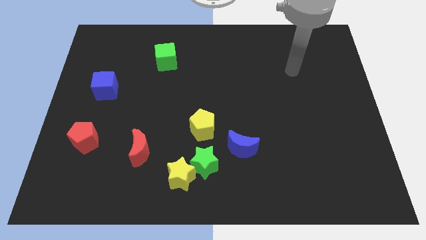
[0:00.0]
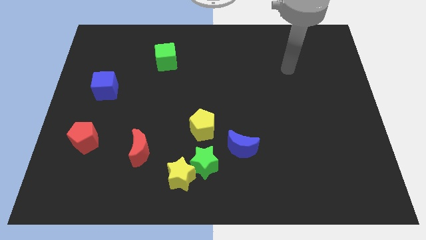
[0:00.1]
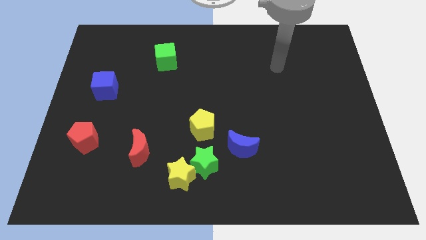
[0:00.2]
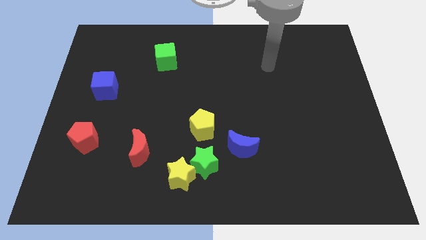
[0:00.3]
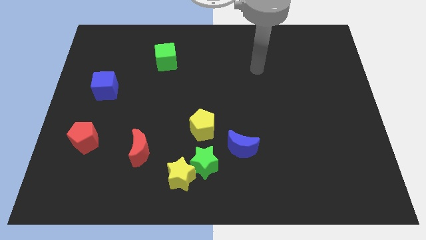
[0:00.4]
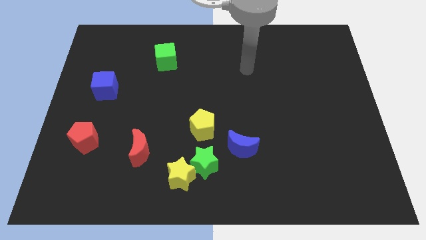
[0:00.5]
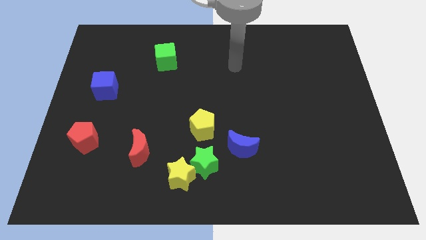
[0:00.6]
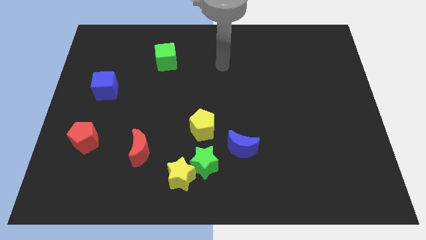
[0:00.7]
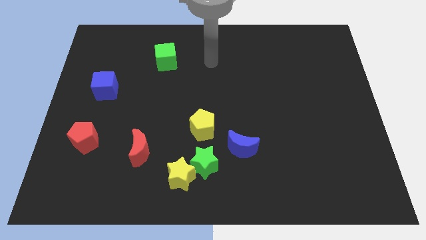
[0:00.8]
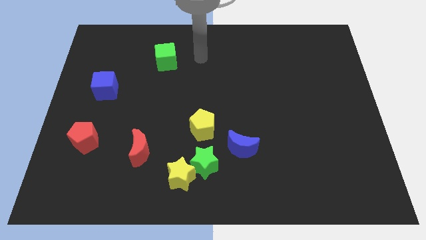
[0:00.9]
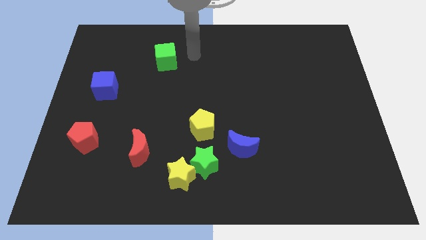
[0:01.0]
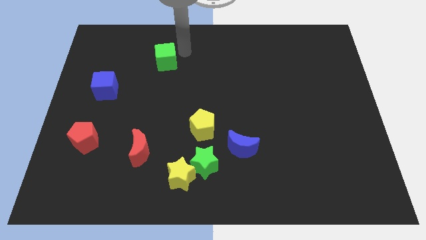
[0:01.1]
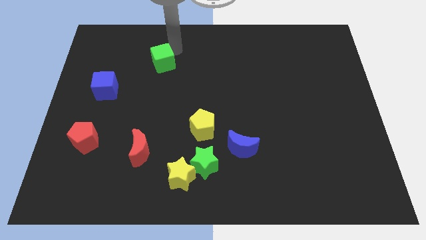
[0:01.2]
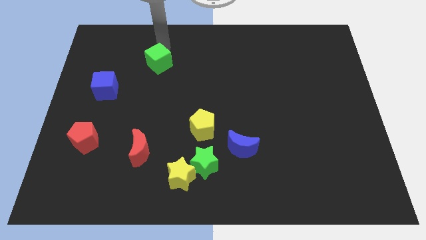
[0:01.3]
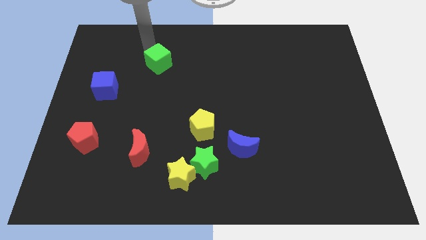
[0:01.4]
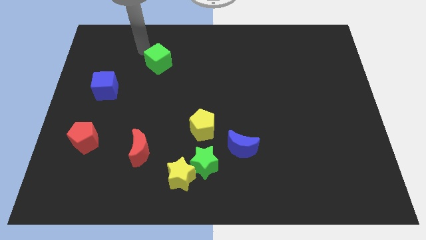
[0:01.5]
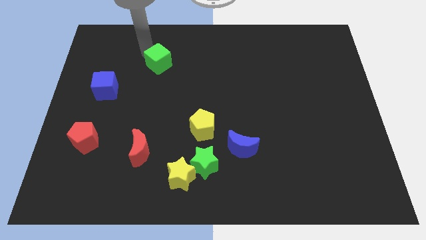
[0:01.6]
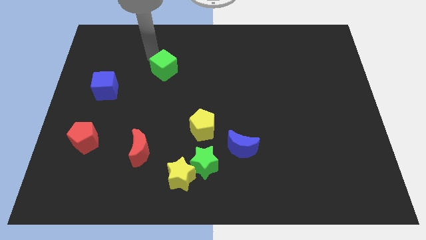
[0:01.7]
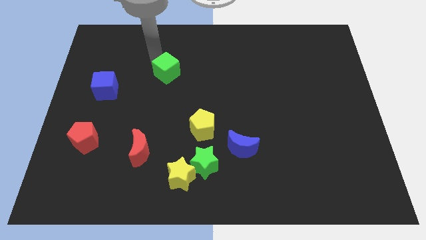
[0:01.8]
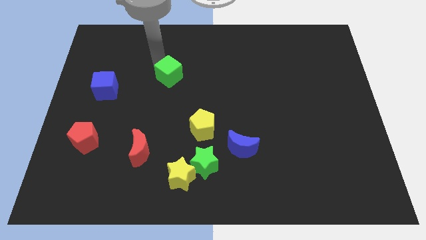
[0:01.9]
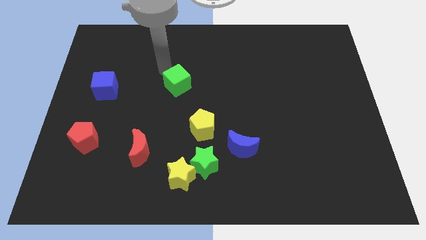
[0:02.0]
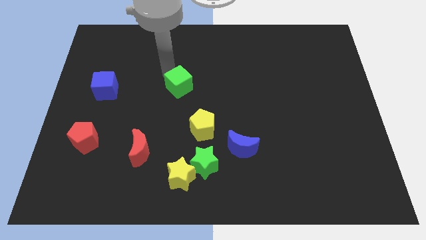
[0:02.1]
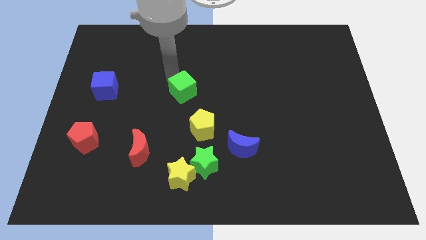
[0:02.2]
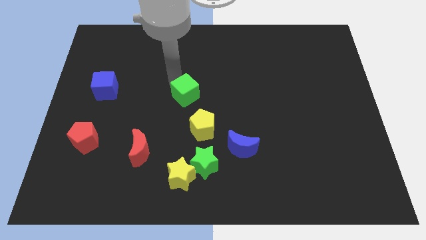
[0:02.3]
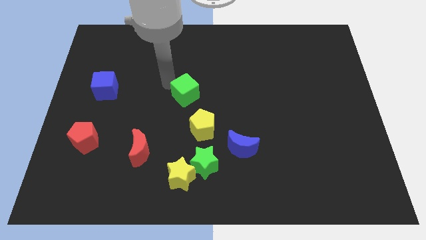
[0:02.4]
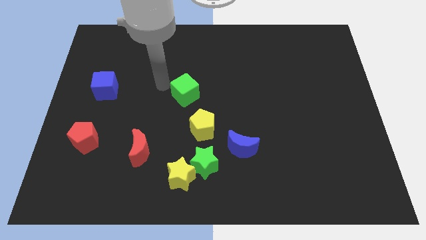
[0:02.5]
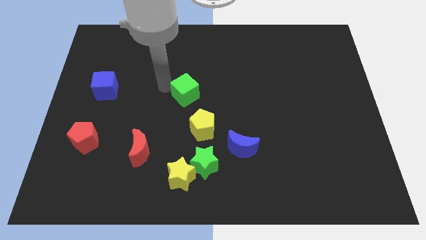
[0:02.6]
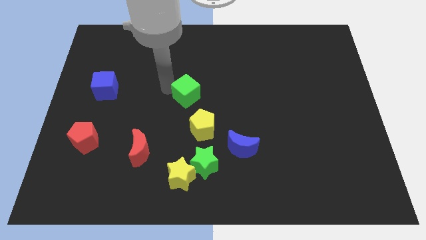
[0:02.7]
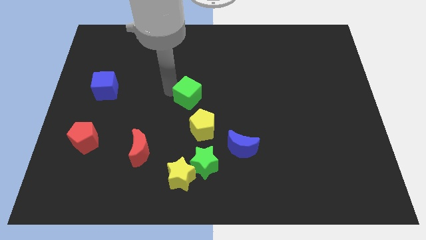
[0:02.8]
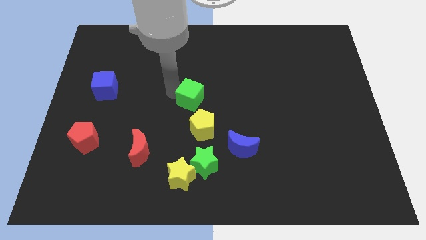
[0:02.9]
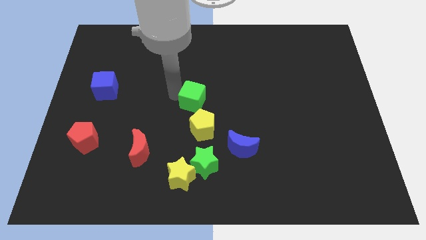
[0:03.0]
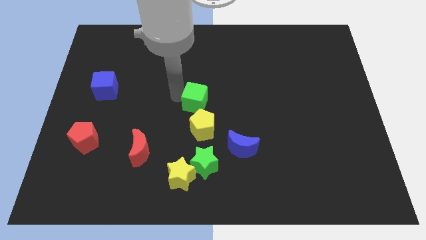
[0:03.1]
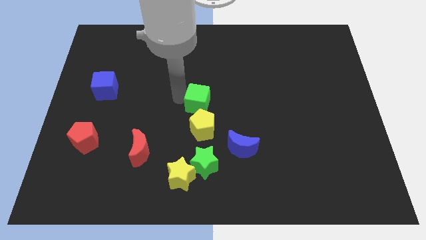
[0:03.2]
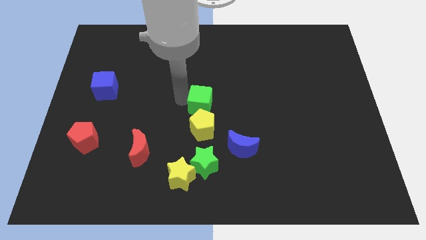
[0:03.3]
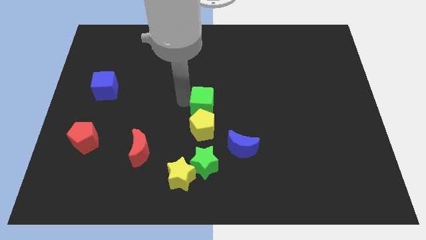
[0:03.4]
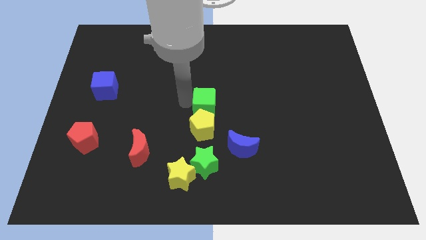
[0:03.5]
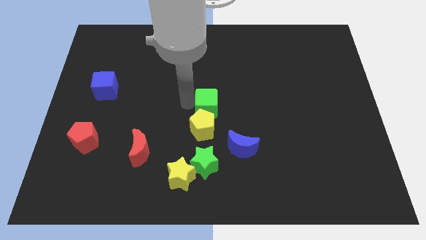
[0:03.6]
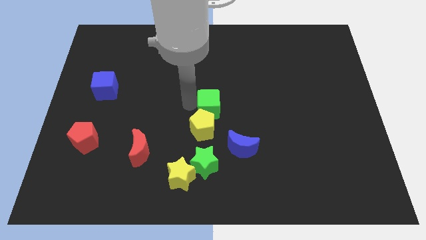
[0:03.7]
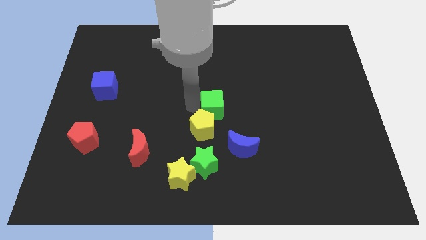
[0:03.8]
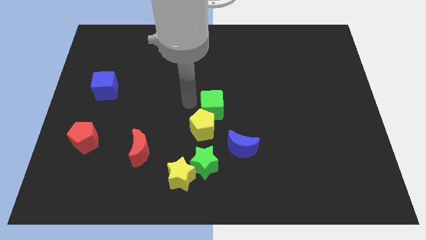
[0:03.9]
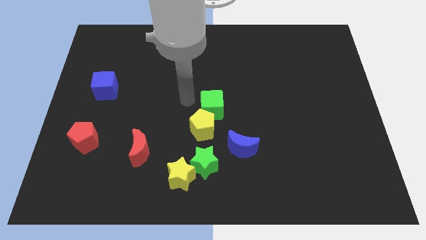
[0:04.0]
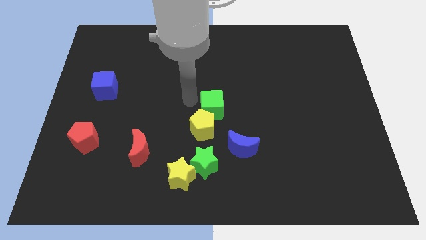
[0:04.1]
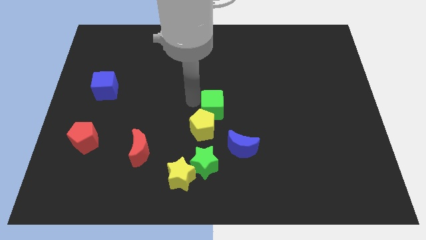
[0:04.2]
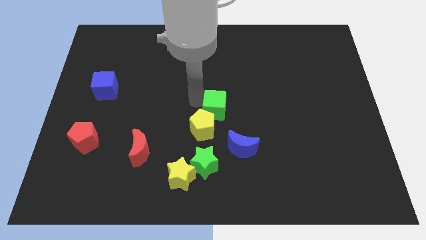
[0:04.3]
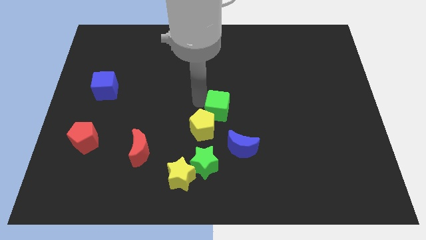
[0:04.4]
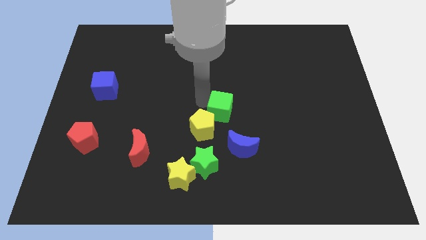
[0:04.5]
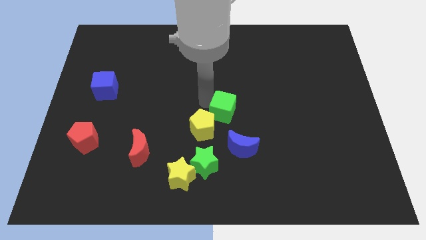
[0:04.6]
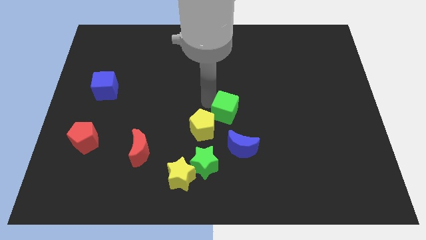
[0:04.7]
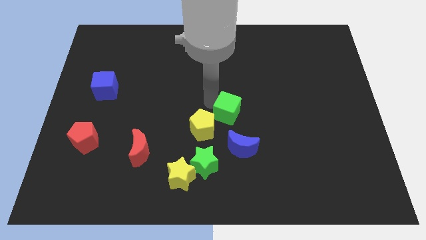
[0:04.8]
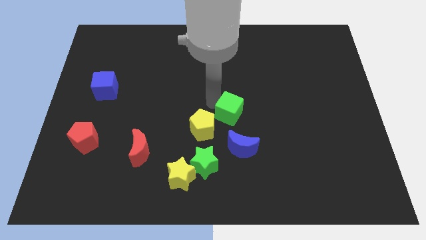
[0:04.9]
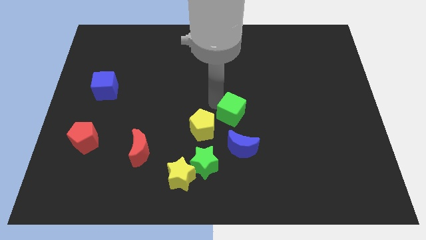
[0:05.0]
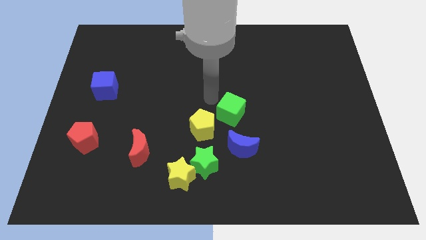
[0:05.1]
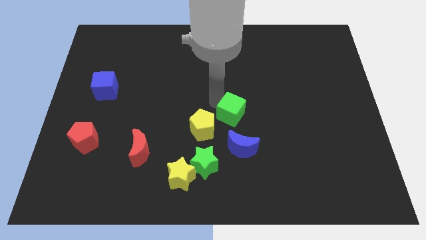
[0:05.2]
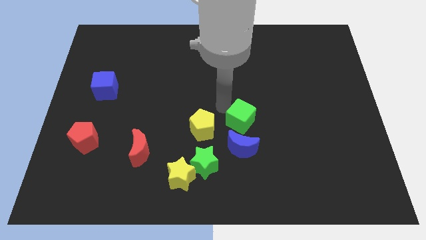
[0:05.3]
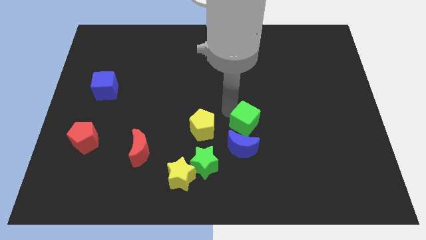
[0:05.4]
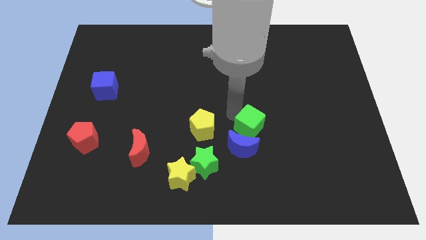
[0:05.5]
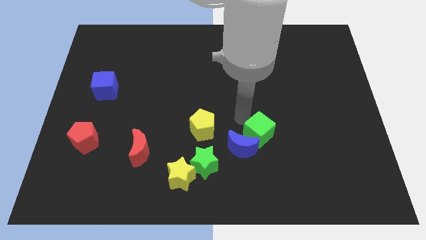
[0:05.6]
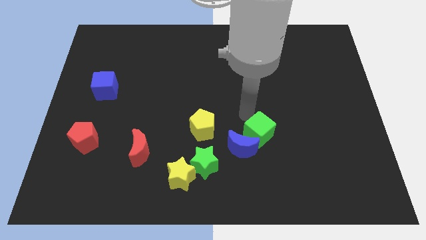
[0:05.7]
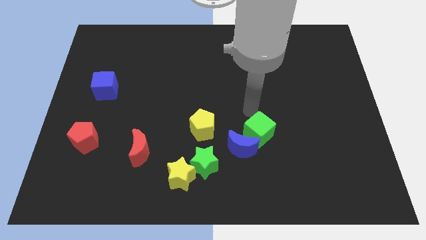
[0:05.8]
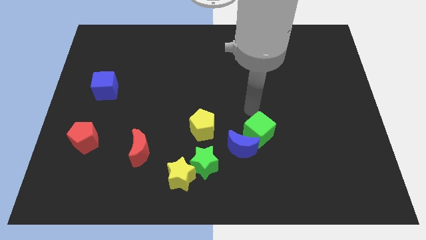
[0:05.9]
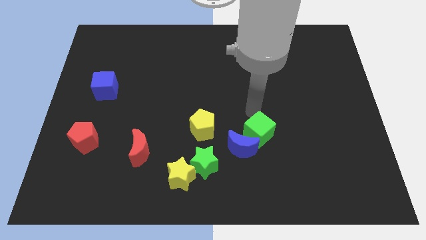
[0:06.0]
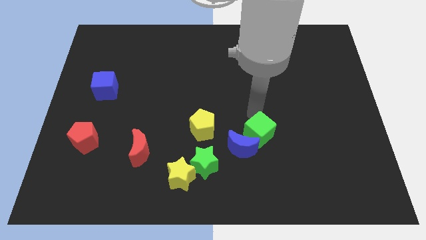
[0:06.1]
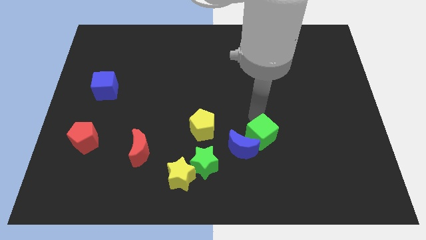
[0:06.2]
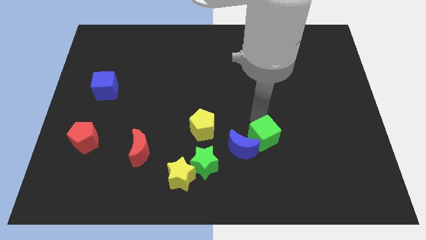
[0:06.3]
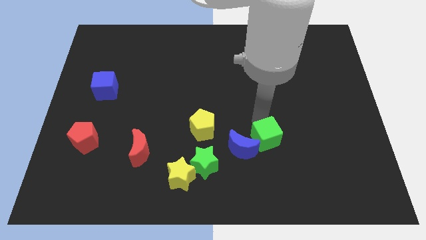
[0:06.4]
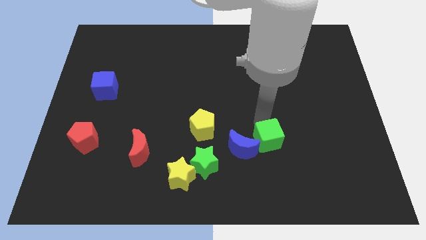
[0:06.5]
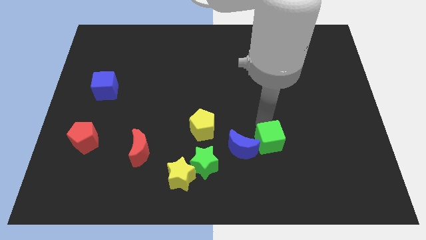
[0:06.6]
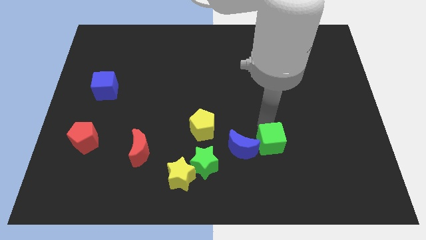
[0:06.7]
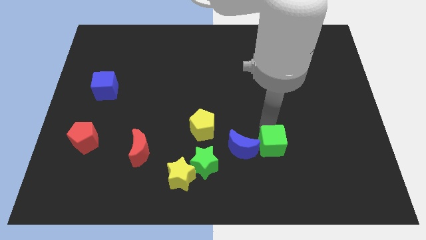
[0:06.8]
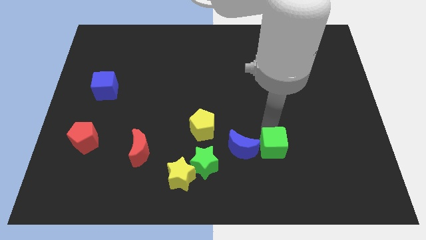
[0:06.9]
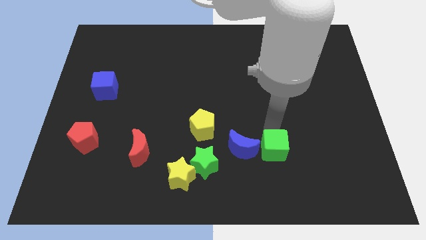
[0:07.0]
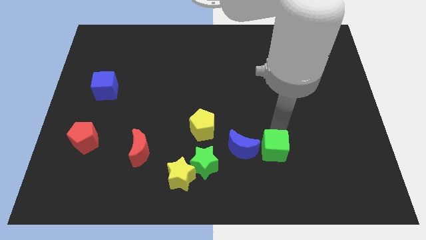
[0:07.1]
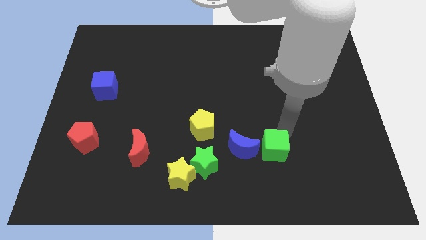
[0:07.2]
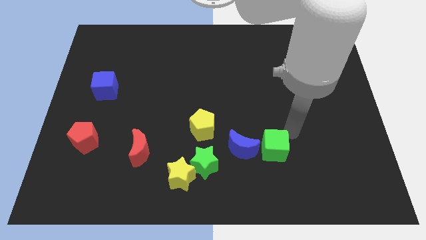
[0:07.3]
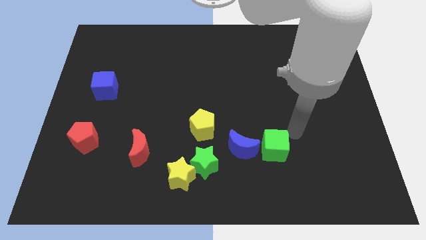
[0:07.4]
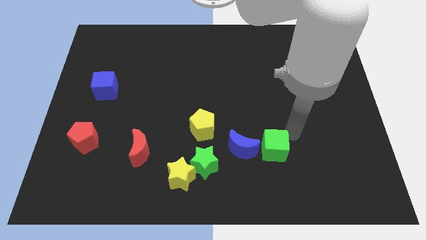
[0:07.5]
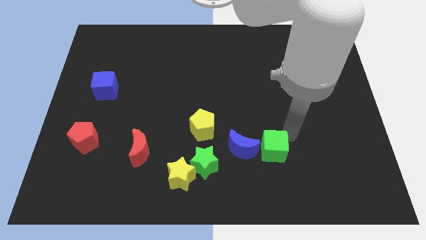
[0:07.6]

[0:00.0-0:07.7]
slide the green cube to the right side of the green star
